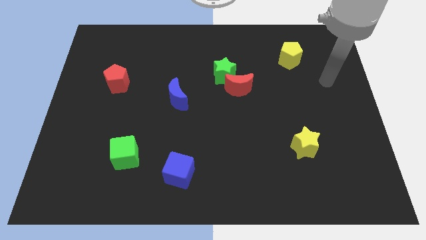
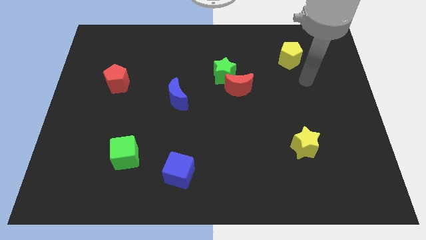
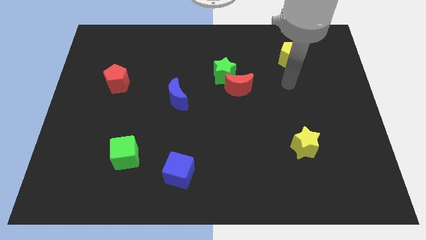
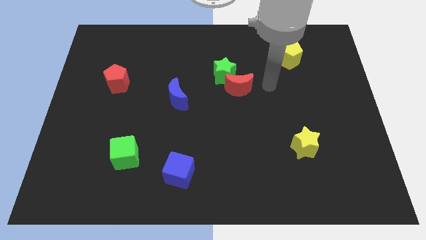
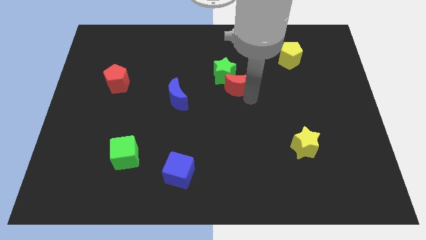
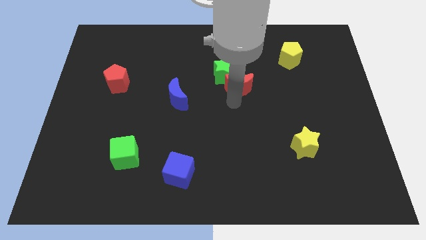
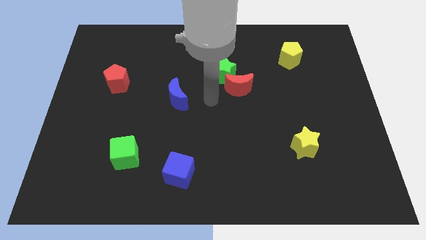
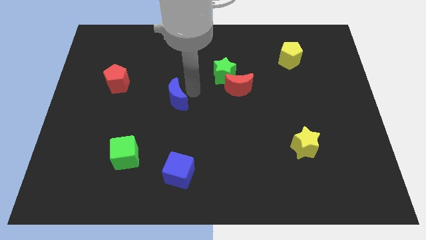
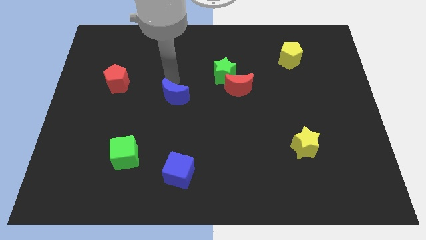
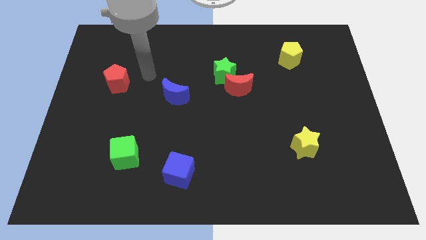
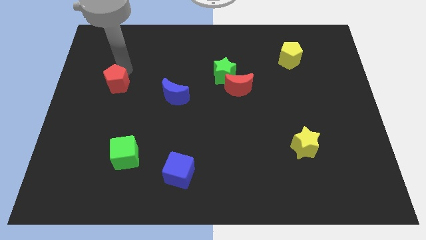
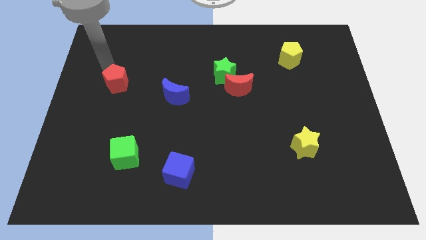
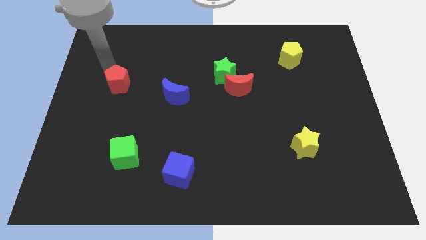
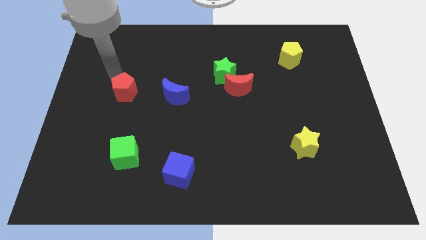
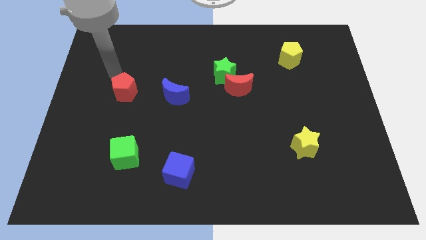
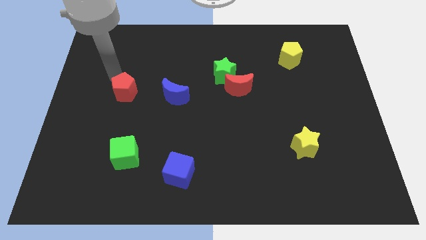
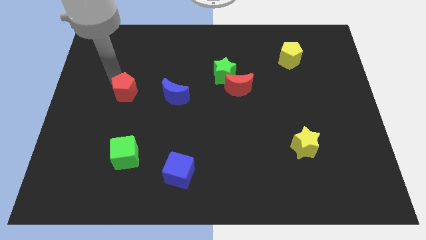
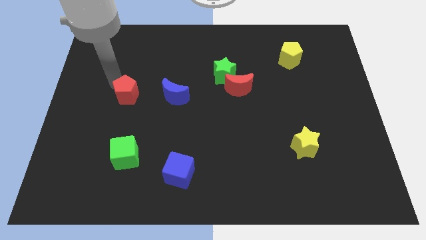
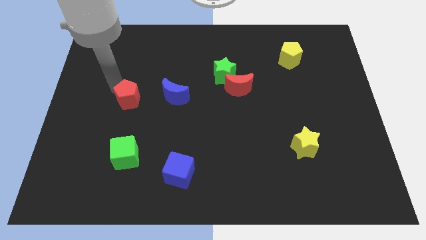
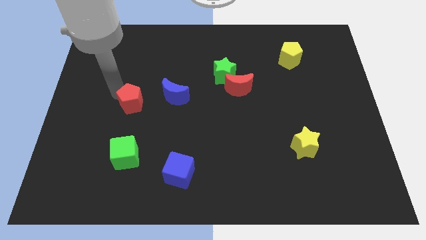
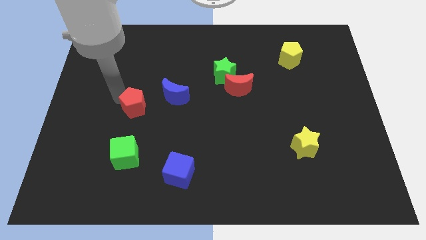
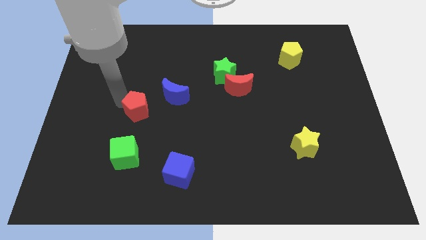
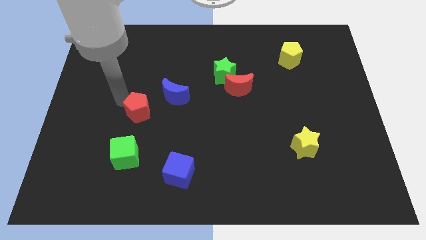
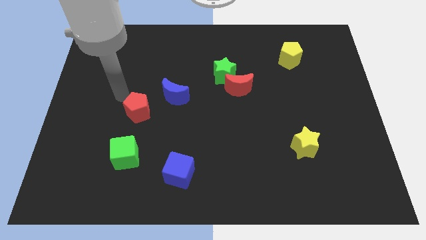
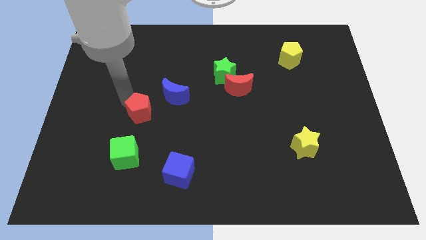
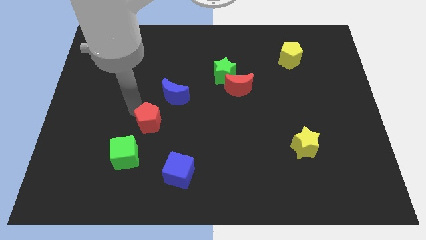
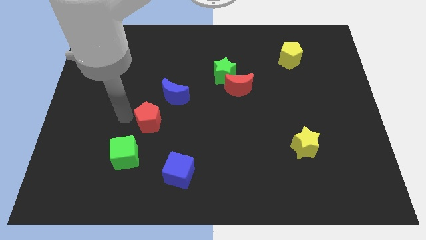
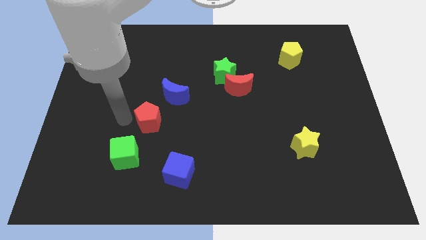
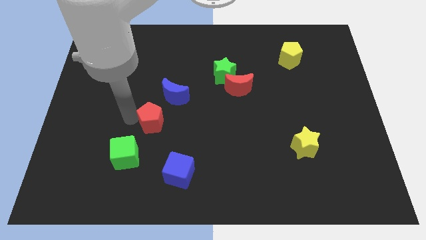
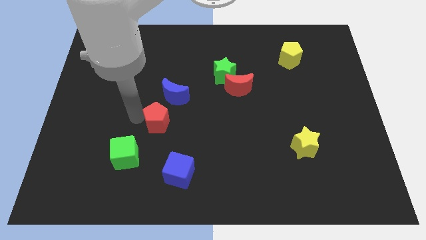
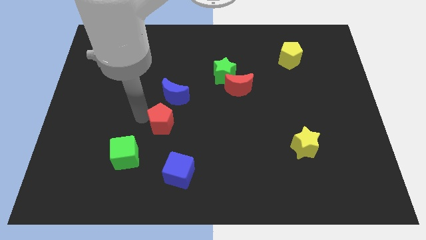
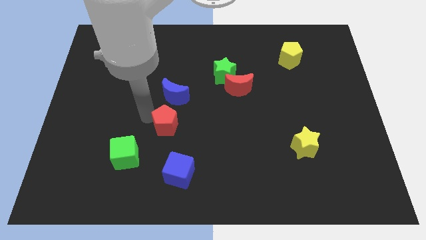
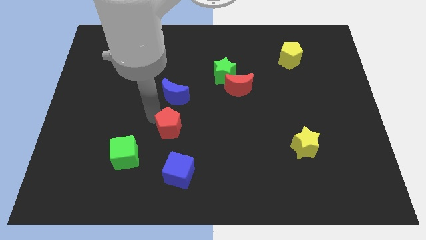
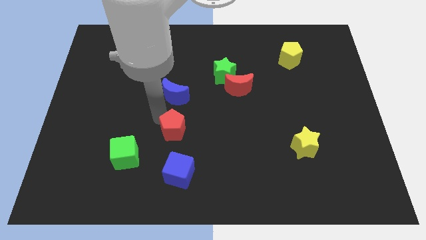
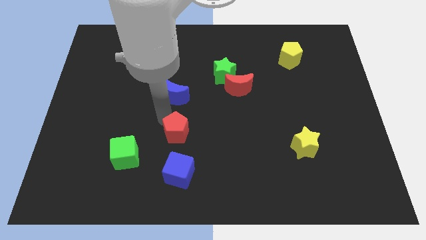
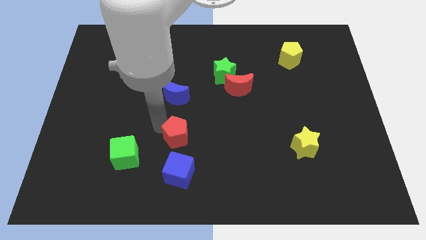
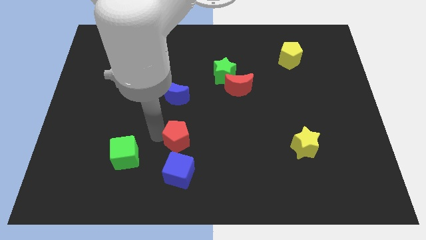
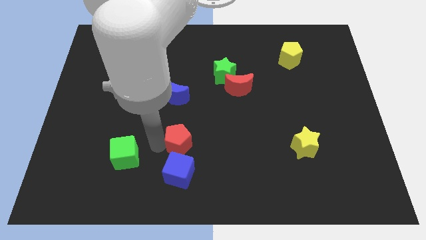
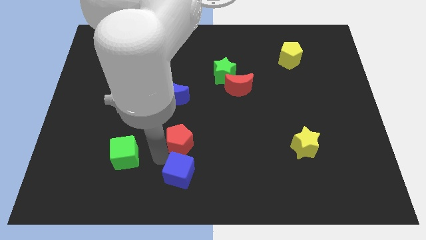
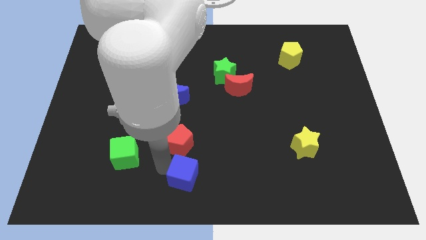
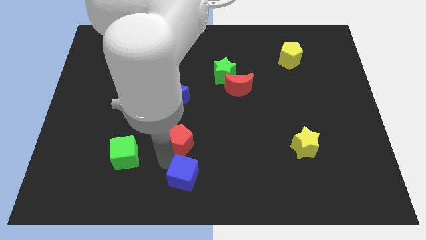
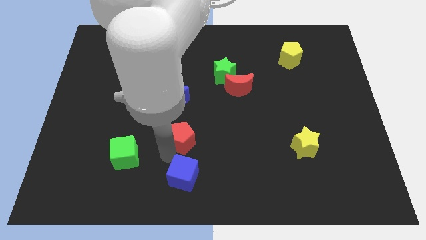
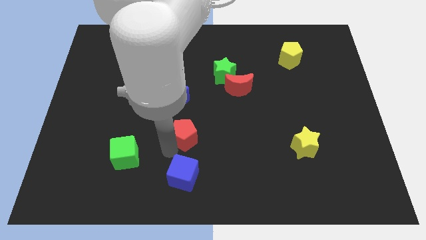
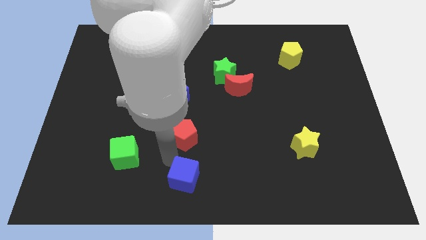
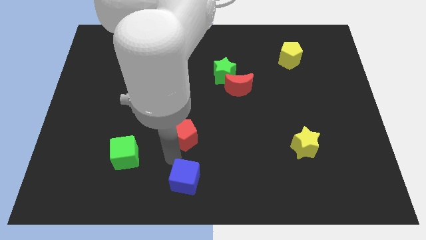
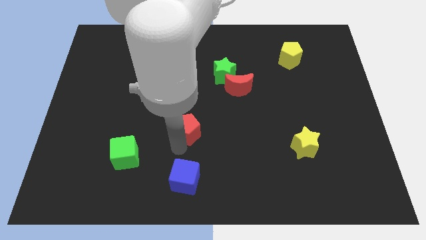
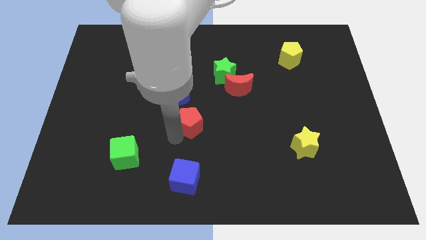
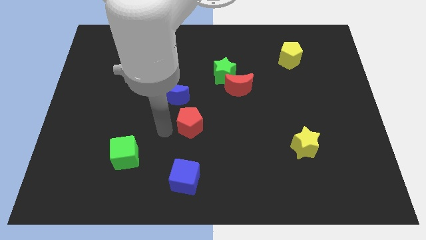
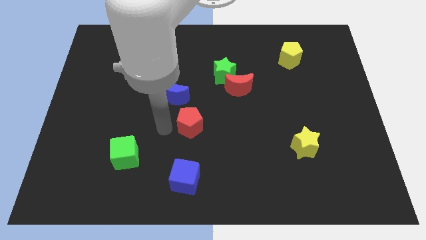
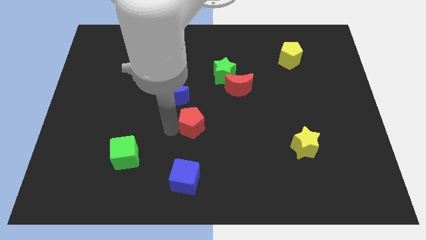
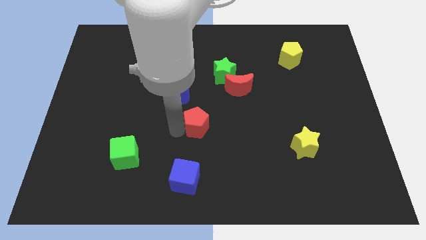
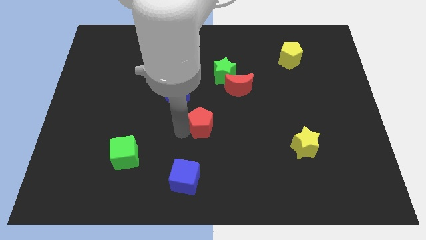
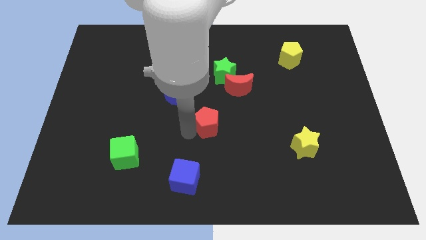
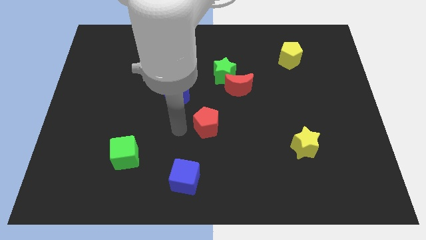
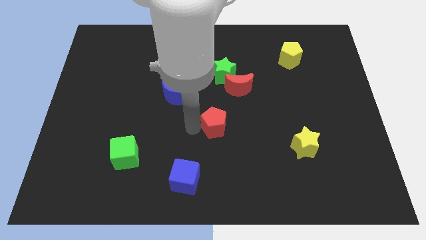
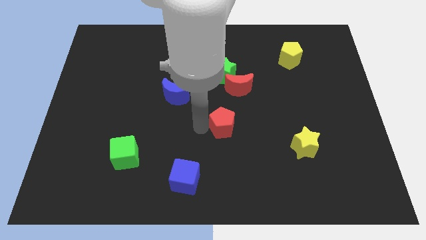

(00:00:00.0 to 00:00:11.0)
move the red pentagon to the bottom of the red moon
